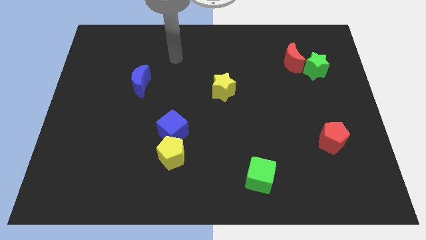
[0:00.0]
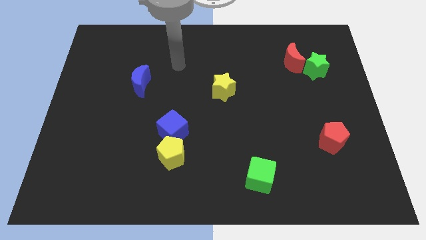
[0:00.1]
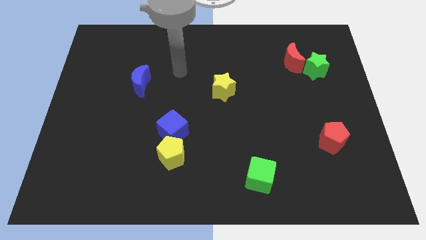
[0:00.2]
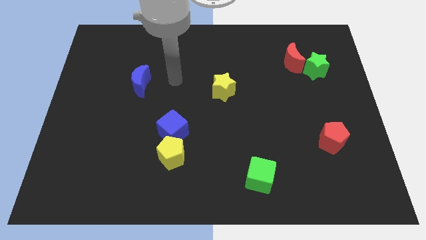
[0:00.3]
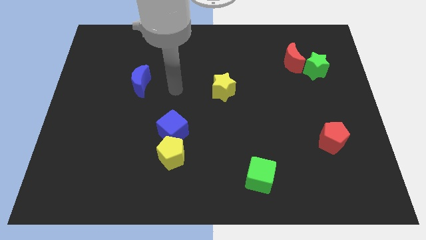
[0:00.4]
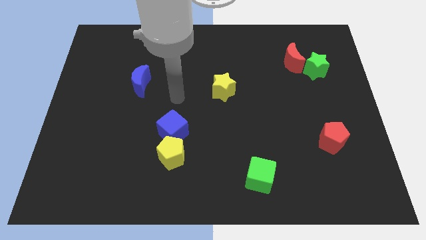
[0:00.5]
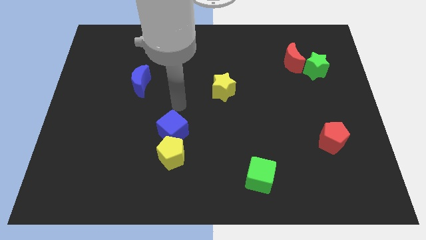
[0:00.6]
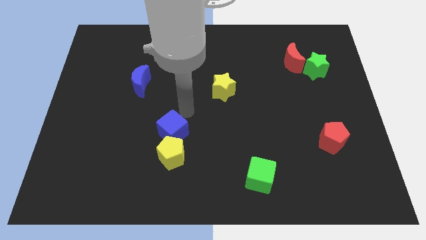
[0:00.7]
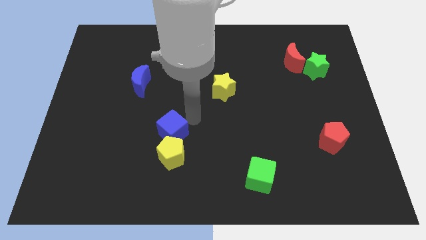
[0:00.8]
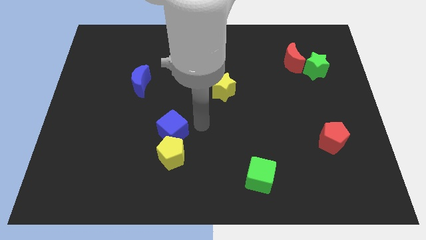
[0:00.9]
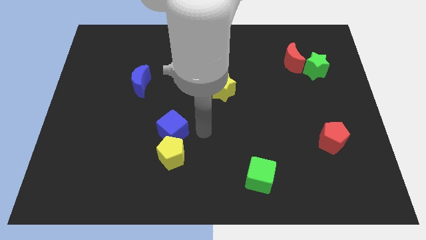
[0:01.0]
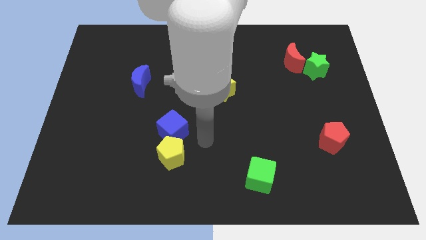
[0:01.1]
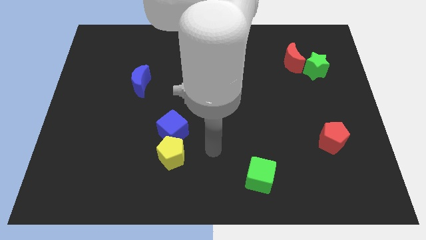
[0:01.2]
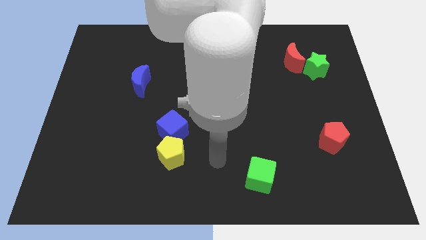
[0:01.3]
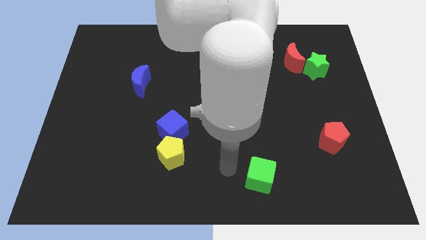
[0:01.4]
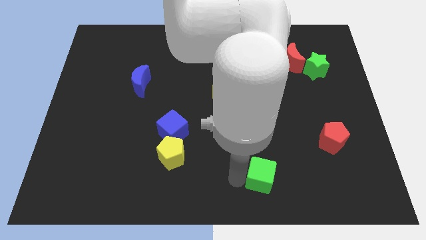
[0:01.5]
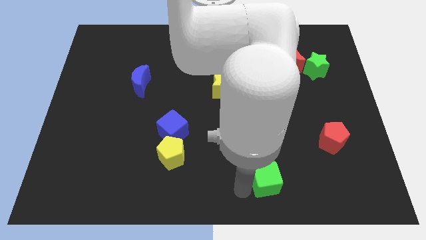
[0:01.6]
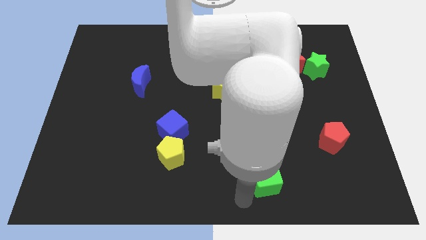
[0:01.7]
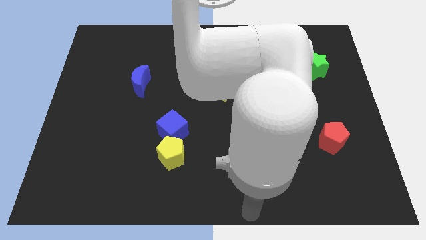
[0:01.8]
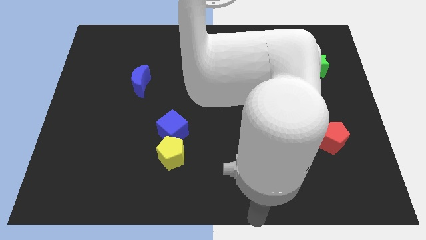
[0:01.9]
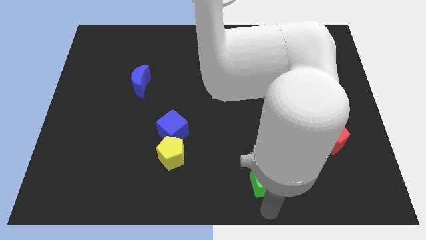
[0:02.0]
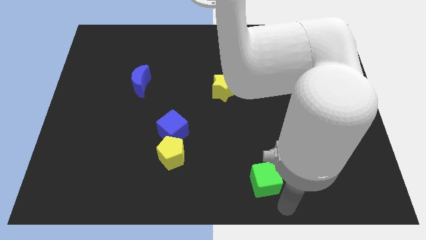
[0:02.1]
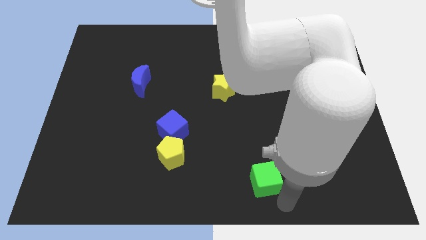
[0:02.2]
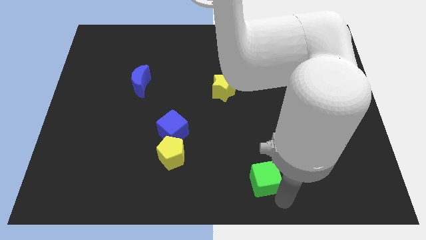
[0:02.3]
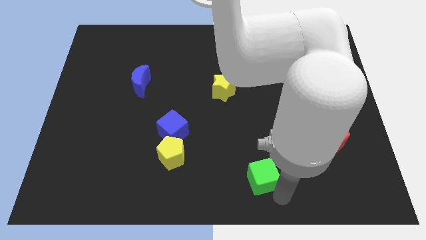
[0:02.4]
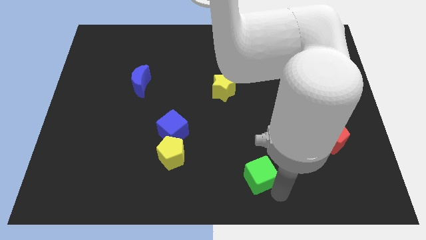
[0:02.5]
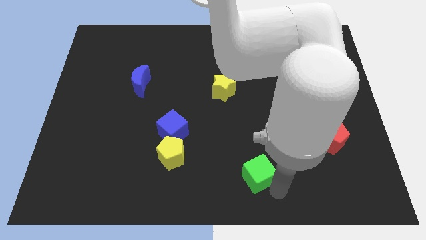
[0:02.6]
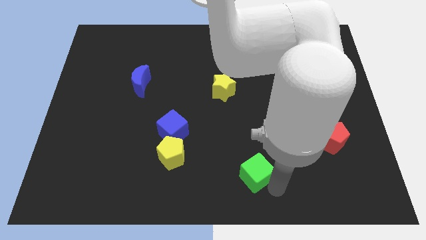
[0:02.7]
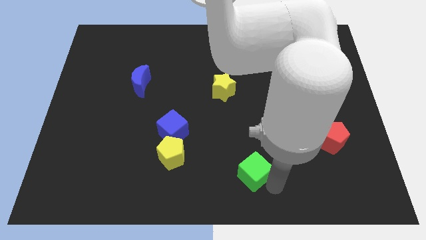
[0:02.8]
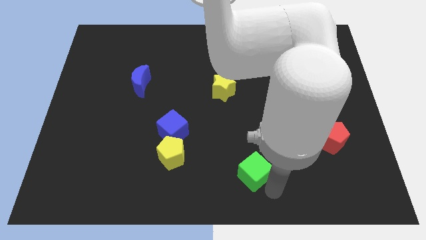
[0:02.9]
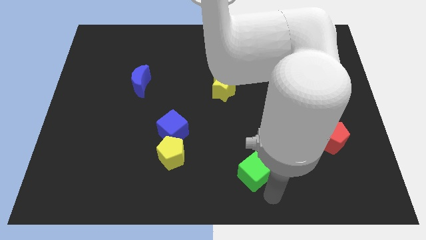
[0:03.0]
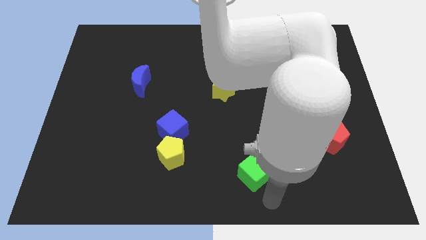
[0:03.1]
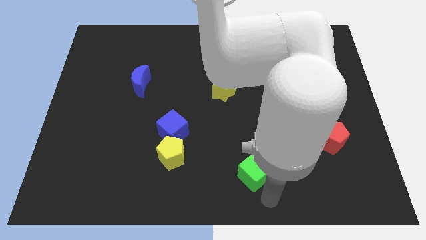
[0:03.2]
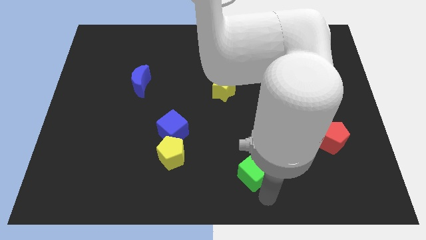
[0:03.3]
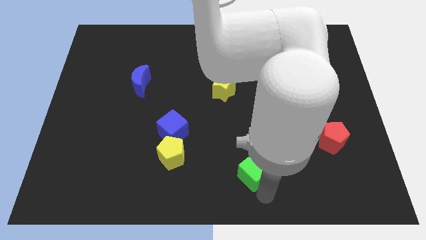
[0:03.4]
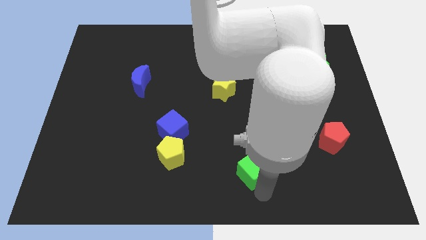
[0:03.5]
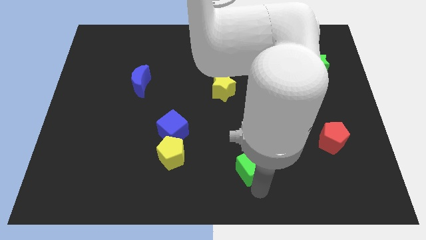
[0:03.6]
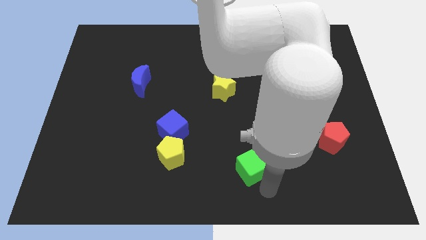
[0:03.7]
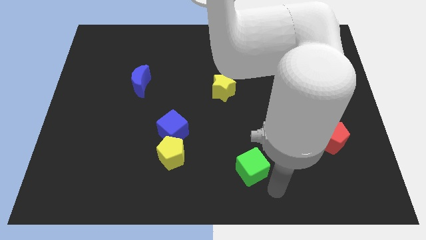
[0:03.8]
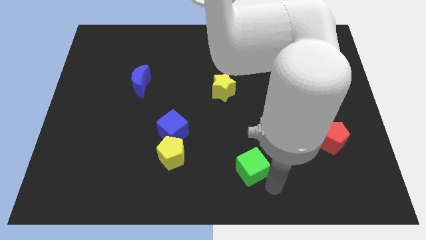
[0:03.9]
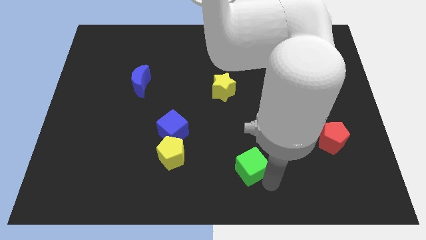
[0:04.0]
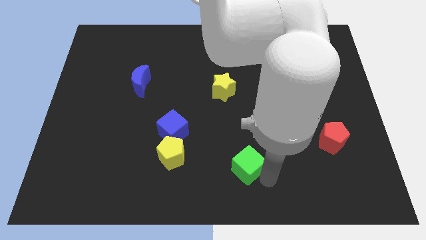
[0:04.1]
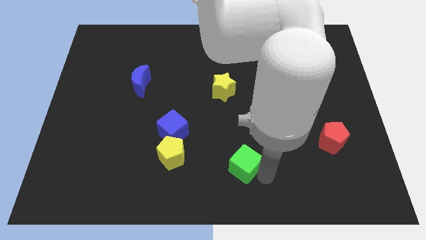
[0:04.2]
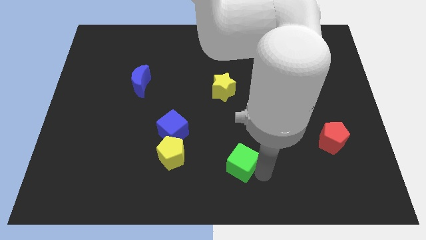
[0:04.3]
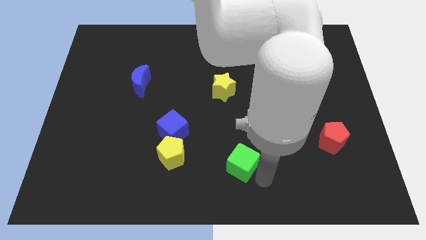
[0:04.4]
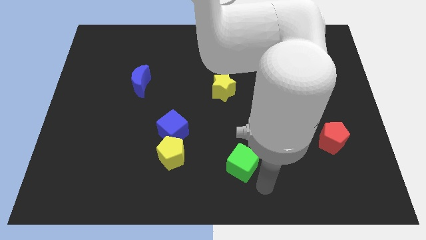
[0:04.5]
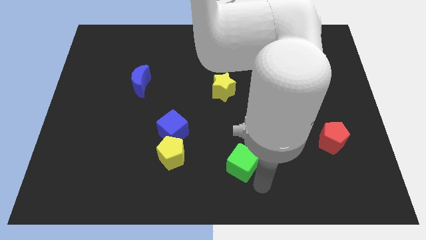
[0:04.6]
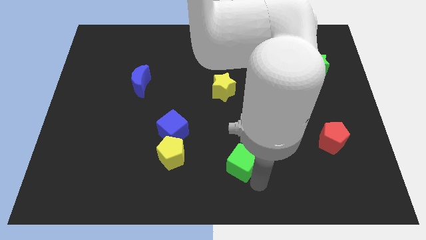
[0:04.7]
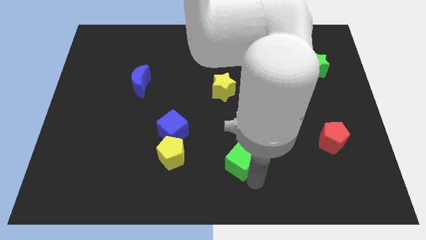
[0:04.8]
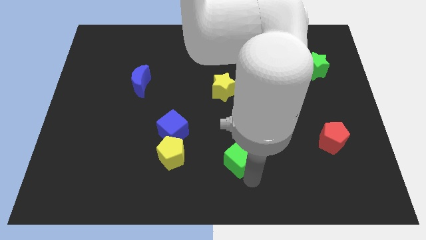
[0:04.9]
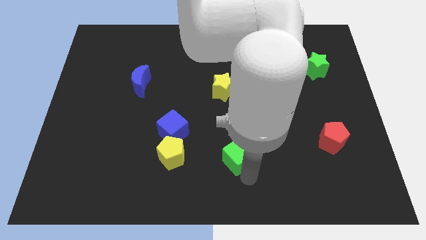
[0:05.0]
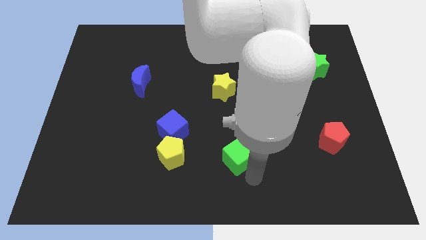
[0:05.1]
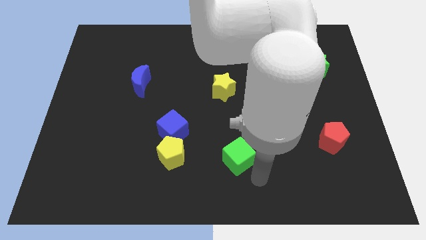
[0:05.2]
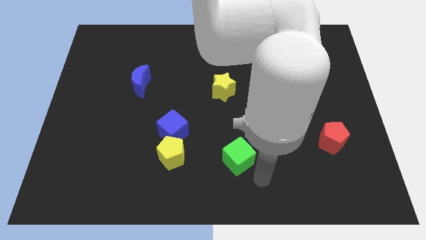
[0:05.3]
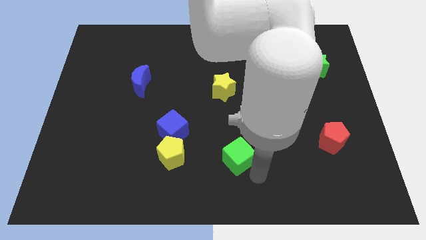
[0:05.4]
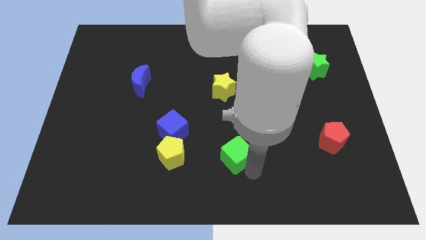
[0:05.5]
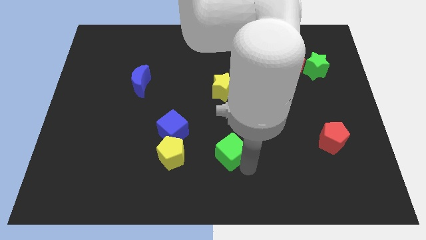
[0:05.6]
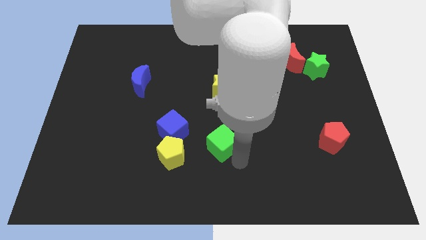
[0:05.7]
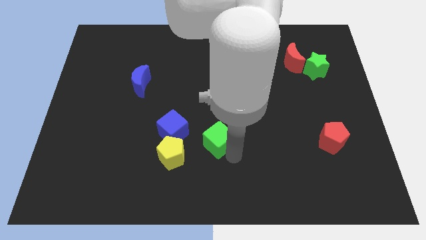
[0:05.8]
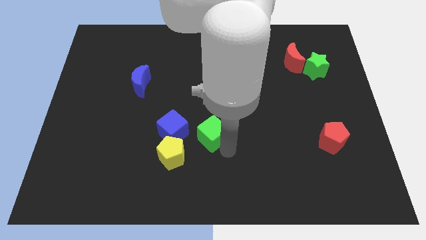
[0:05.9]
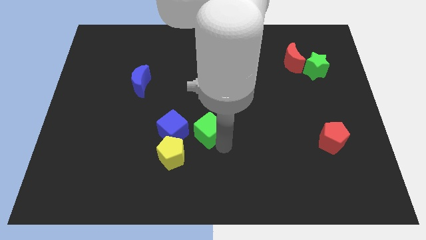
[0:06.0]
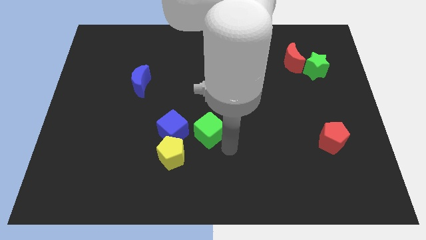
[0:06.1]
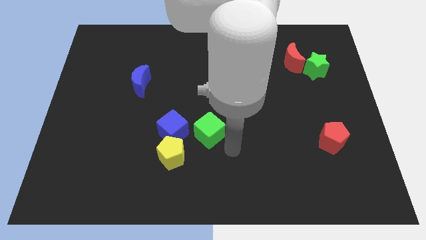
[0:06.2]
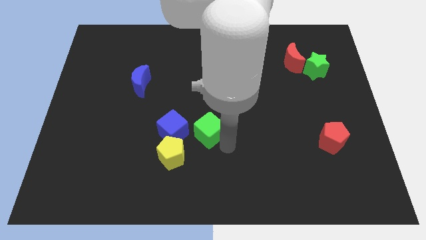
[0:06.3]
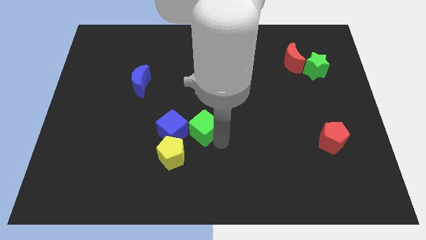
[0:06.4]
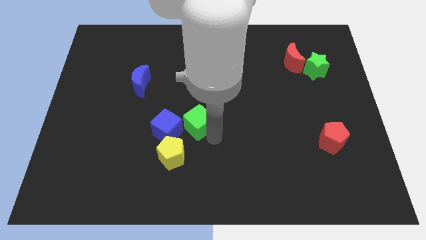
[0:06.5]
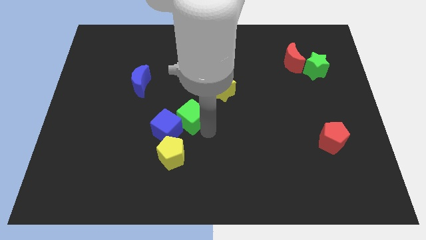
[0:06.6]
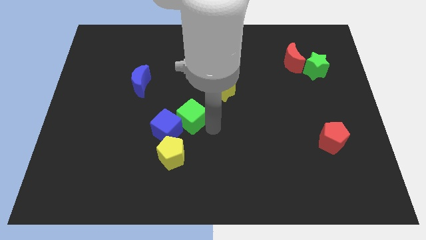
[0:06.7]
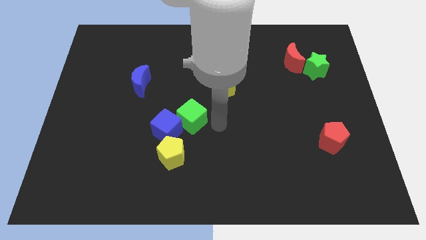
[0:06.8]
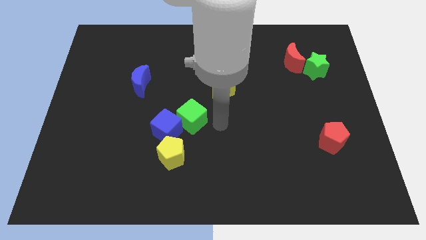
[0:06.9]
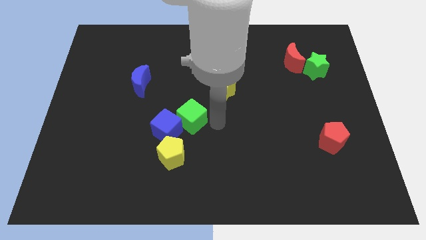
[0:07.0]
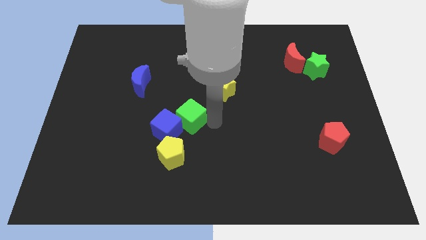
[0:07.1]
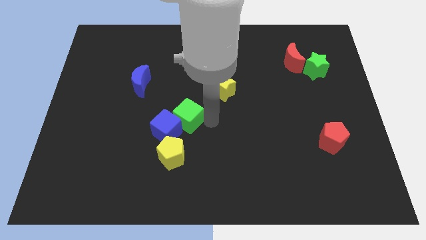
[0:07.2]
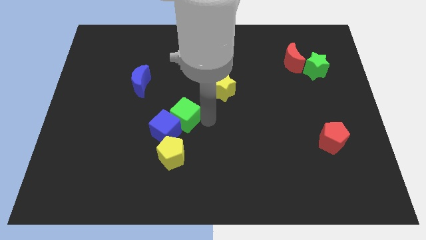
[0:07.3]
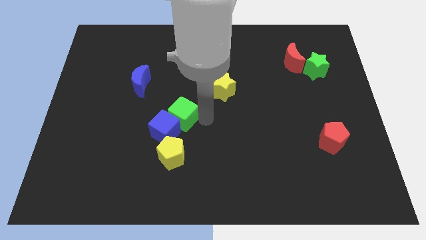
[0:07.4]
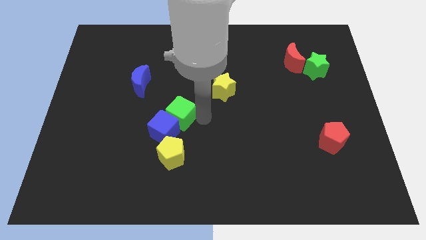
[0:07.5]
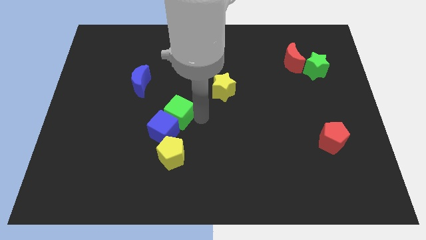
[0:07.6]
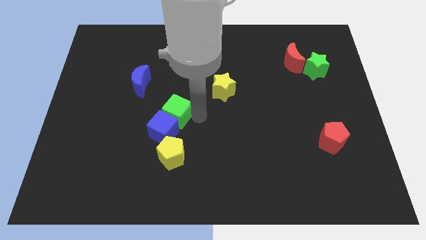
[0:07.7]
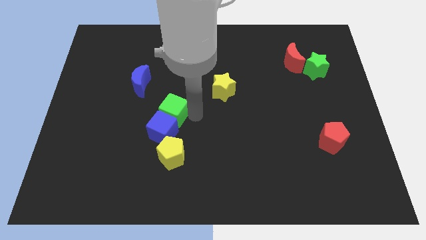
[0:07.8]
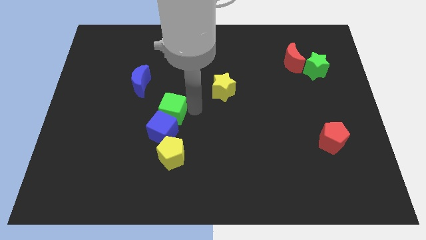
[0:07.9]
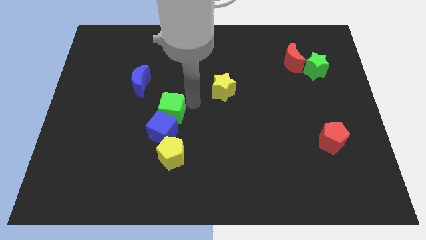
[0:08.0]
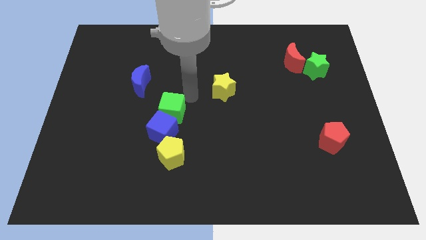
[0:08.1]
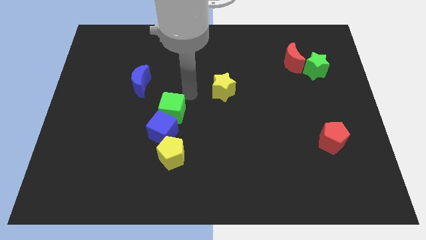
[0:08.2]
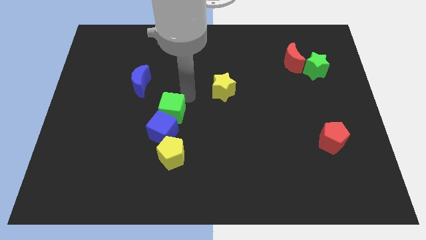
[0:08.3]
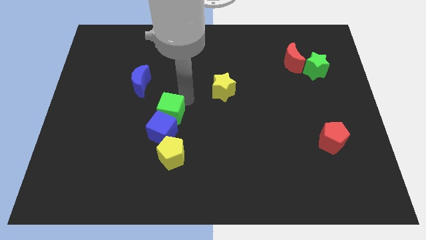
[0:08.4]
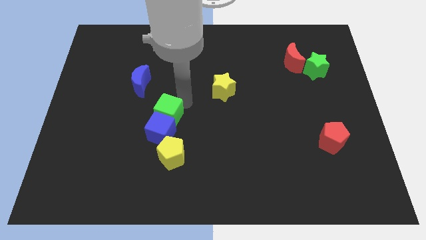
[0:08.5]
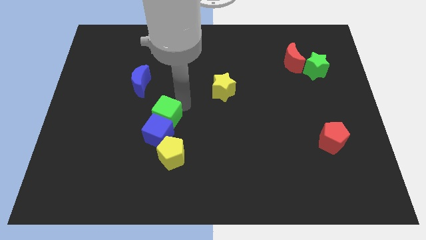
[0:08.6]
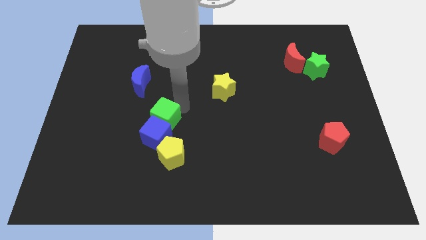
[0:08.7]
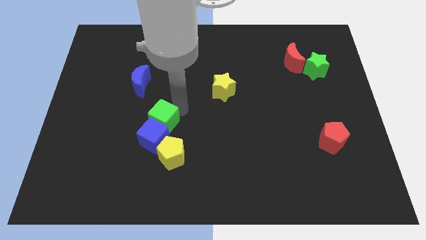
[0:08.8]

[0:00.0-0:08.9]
push the green cube to the top left of the yellow pentagon
